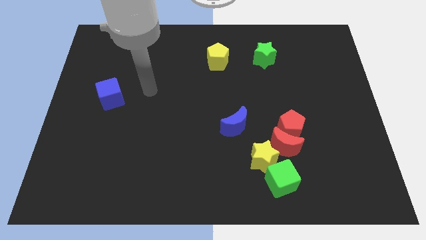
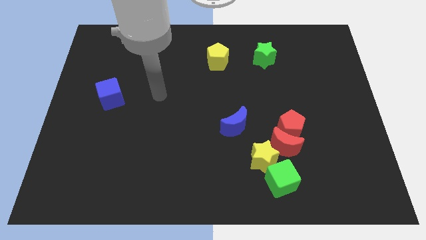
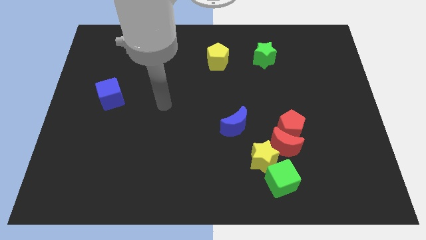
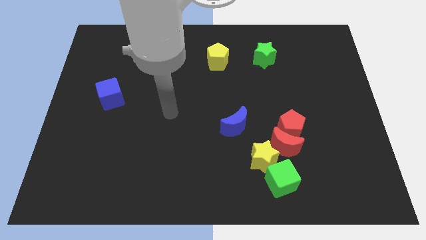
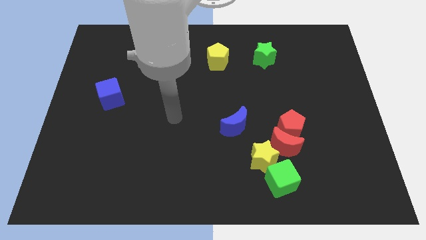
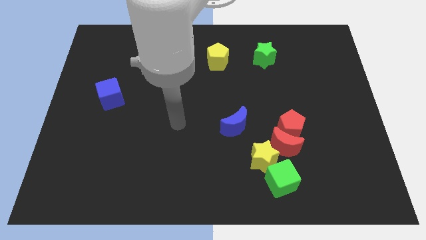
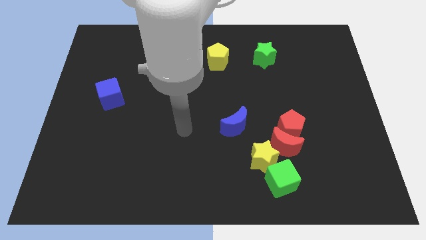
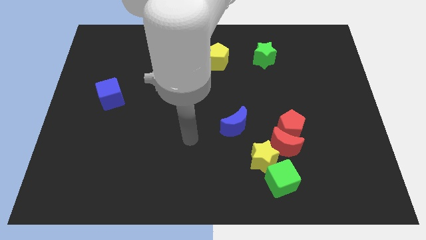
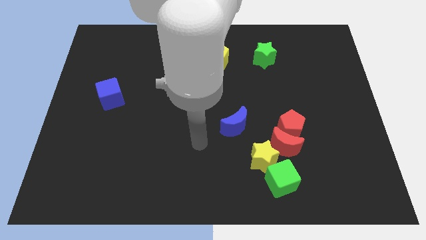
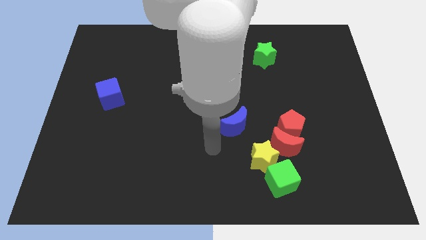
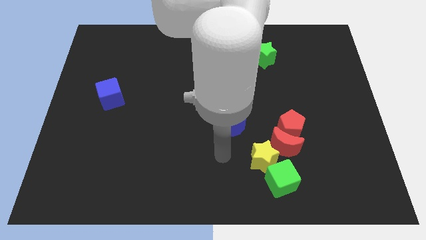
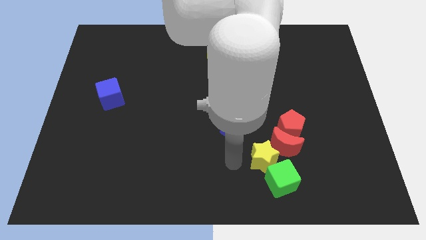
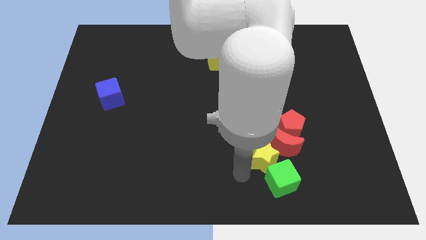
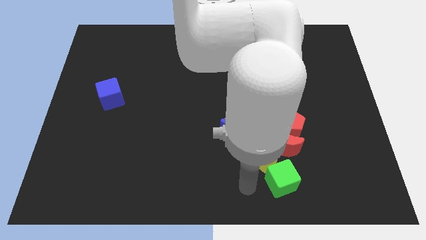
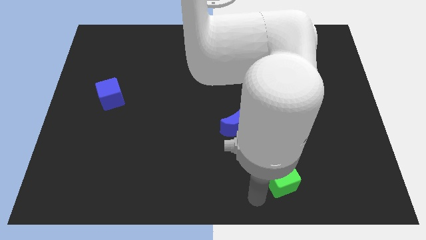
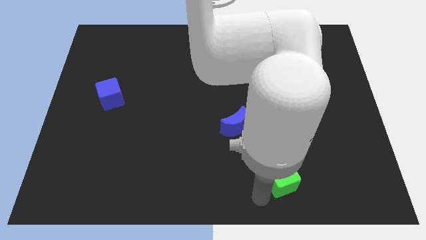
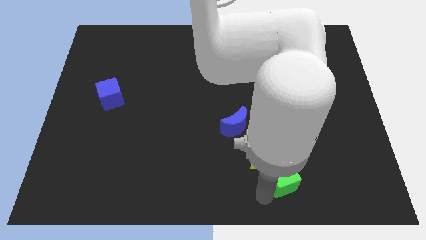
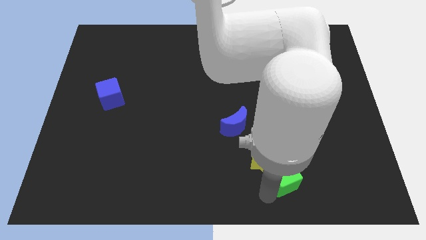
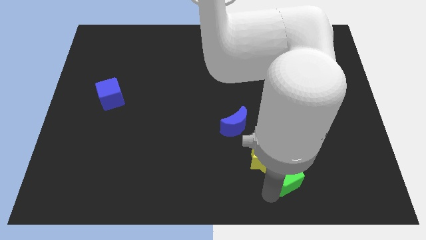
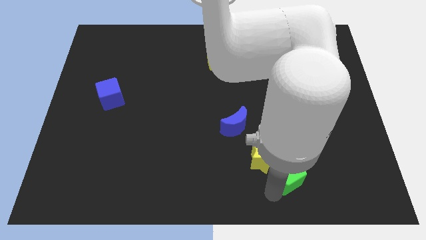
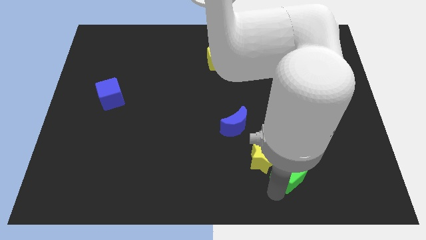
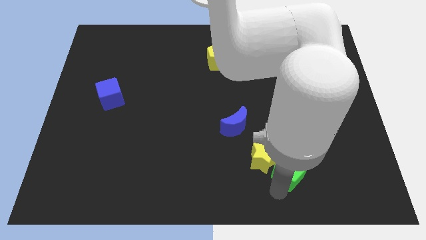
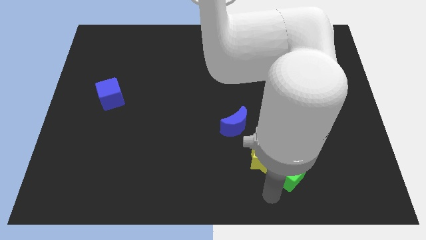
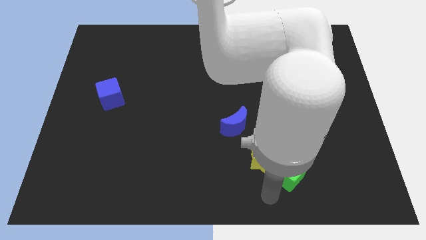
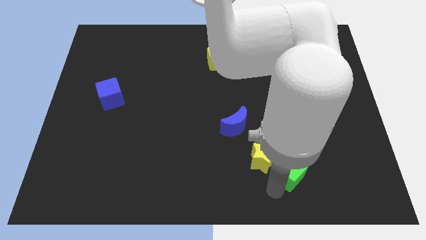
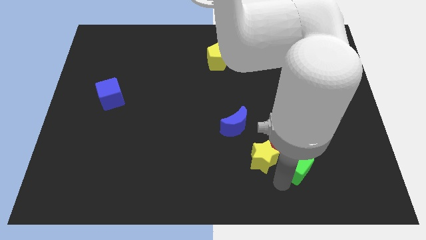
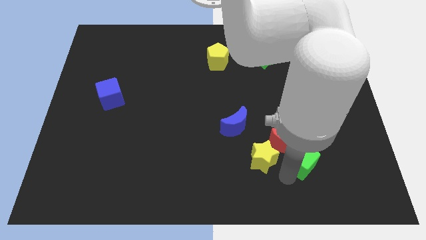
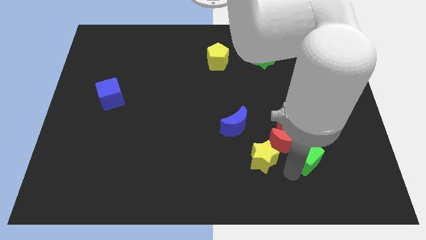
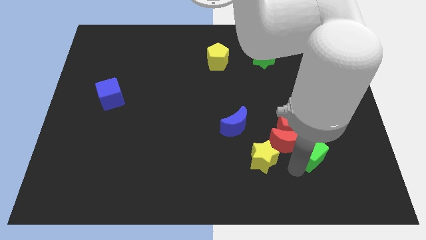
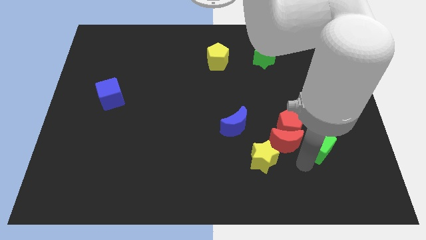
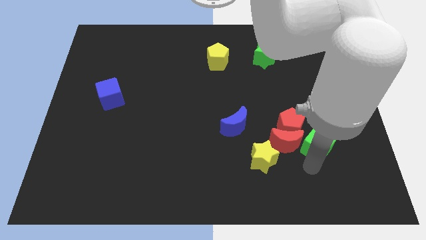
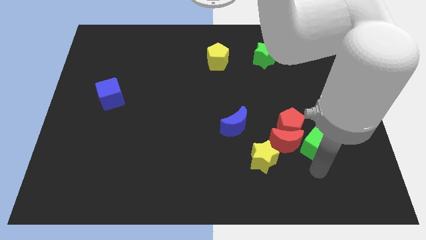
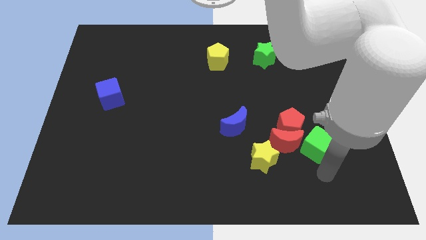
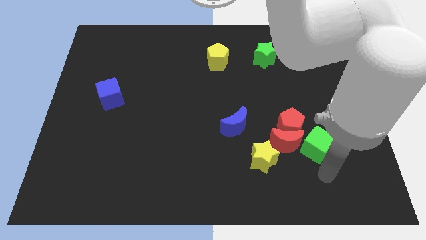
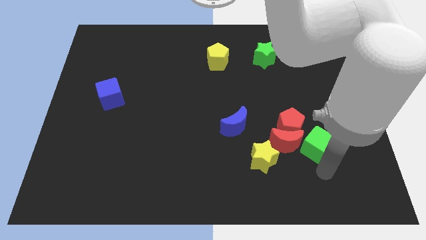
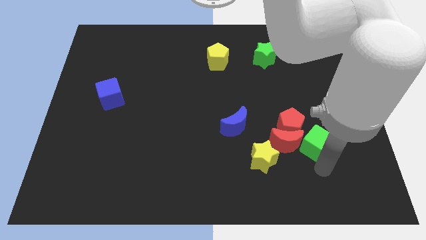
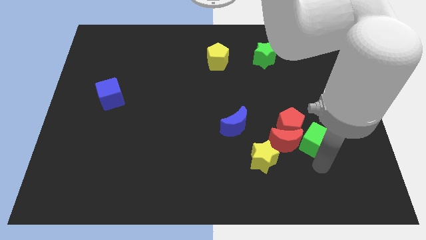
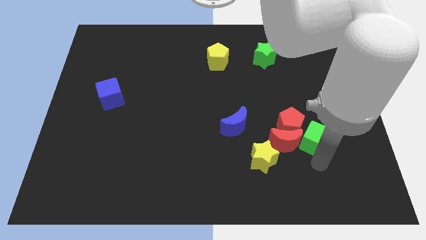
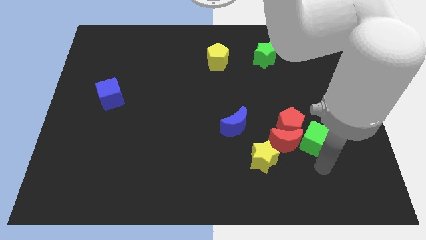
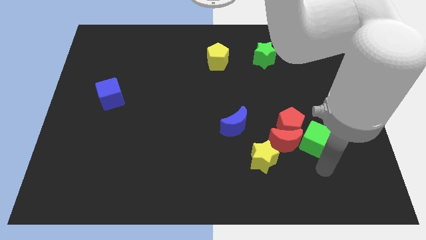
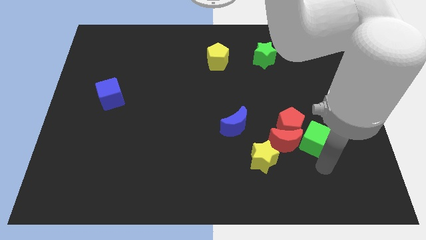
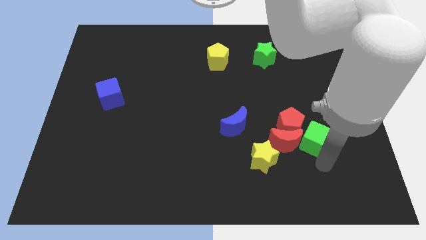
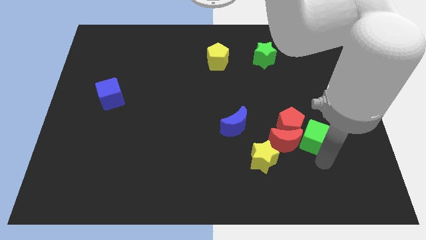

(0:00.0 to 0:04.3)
slightly push the green cube upwards

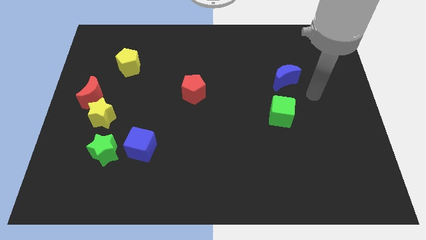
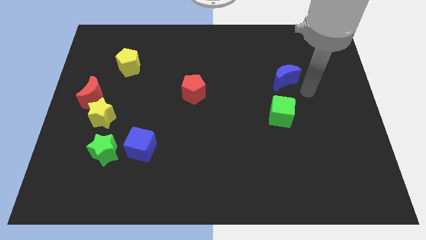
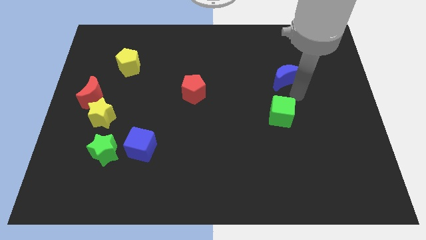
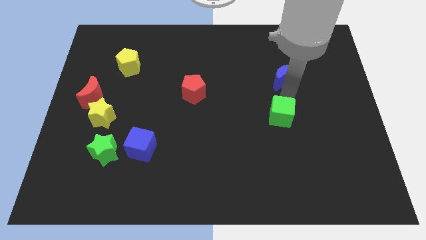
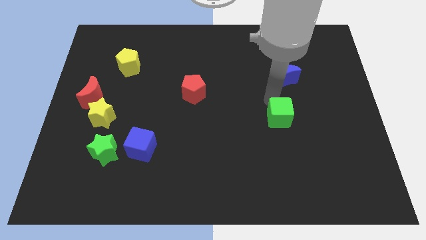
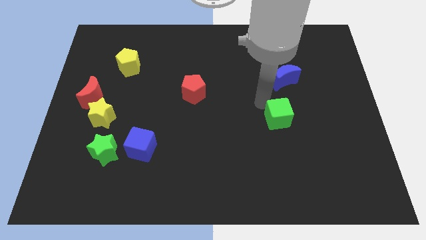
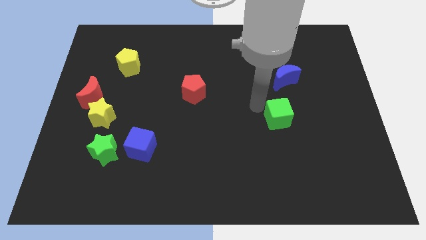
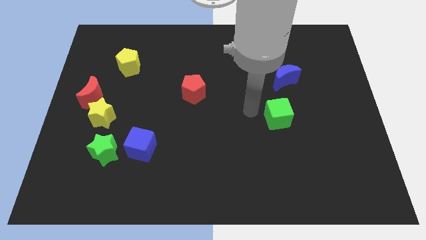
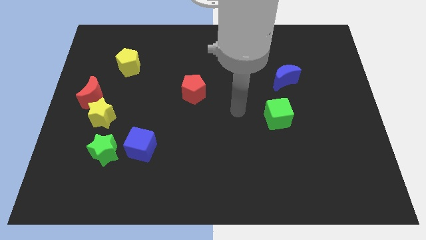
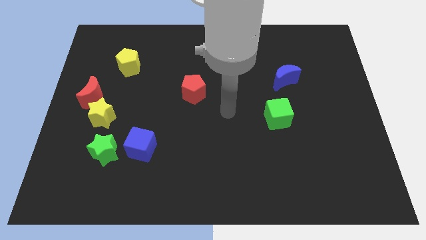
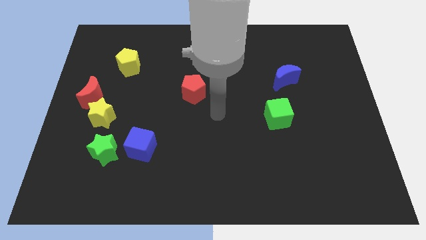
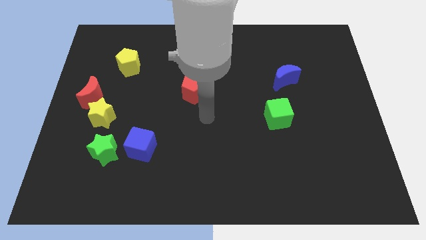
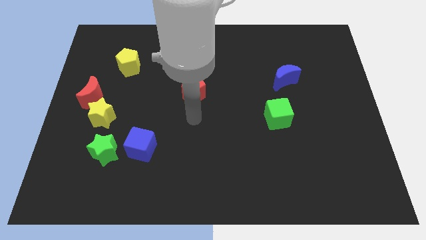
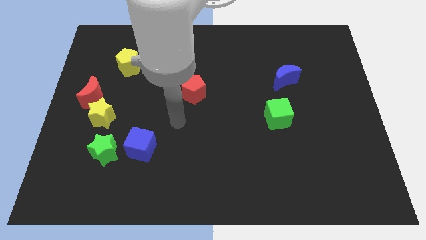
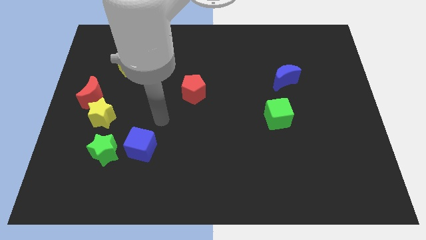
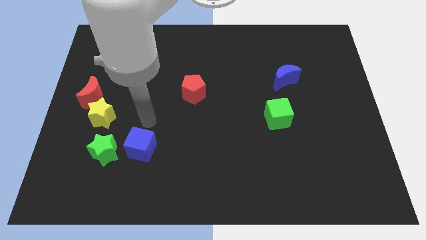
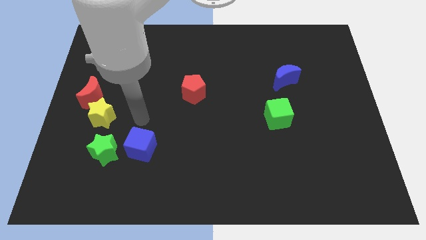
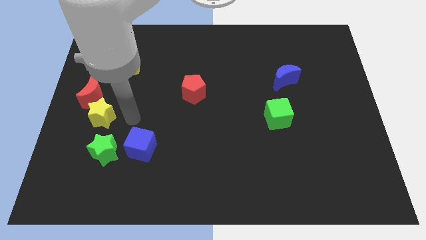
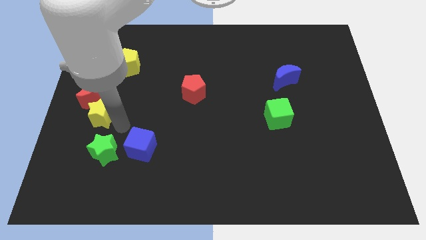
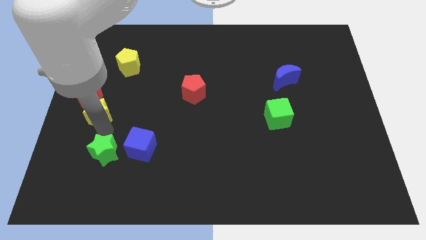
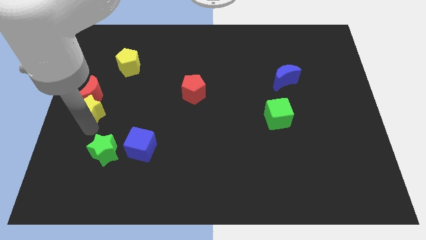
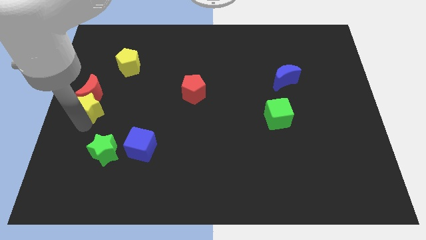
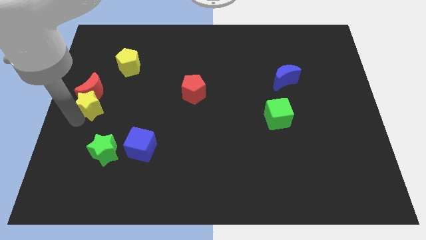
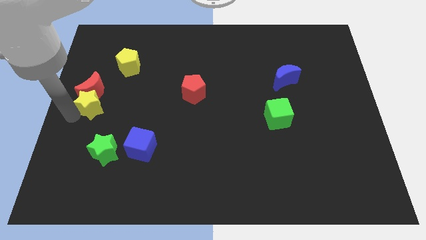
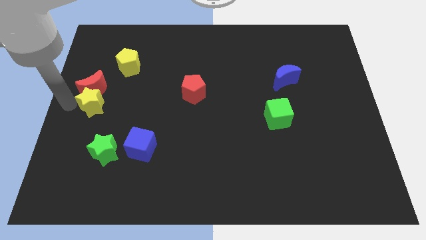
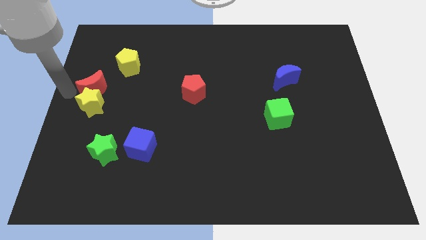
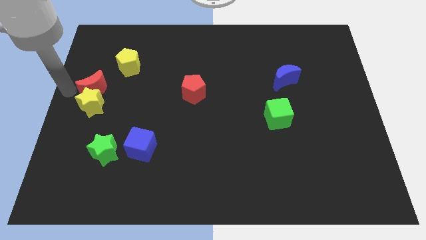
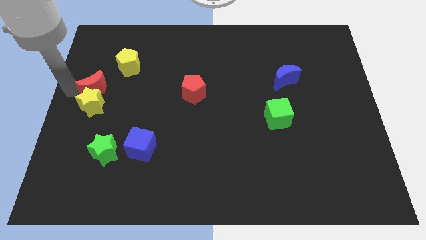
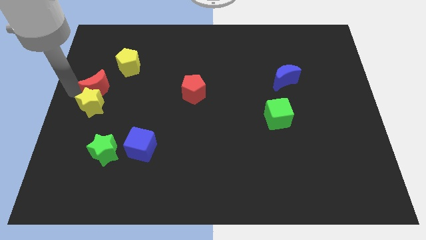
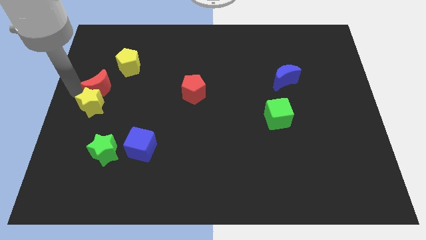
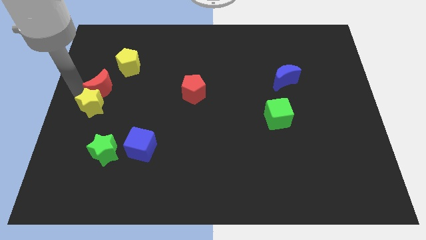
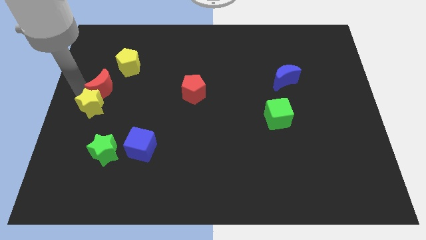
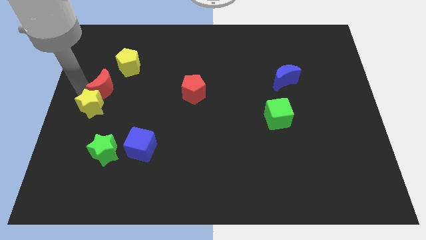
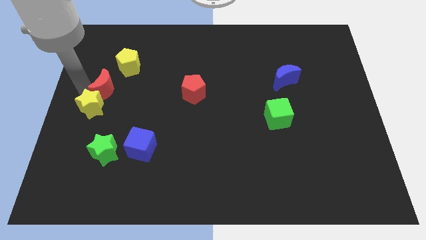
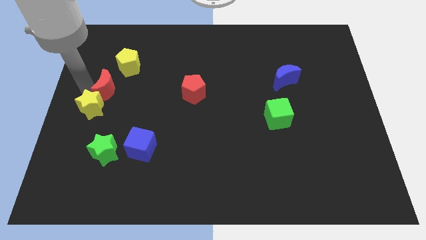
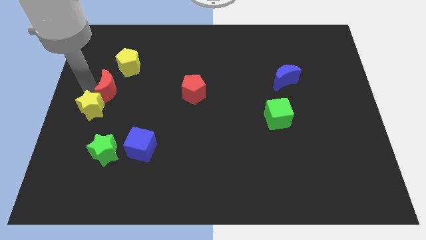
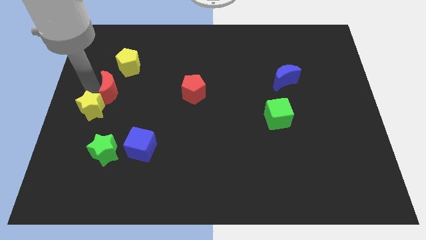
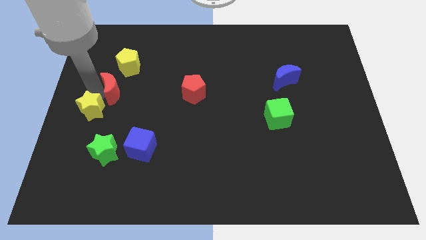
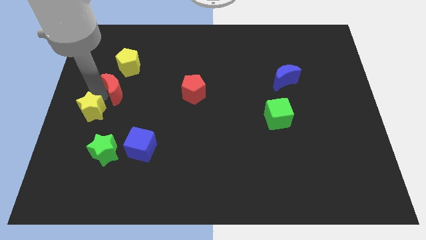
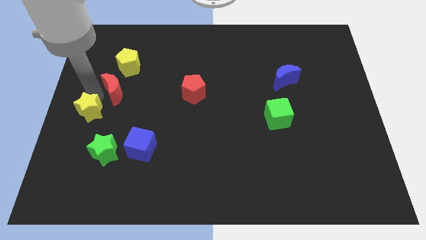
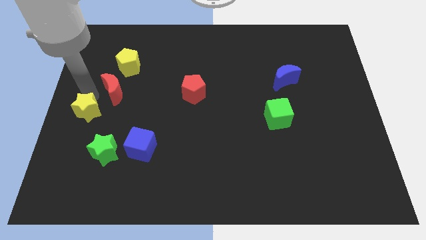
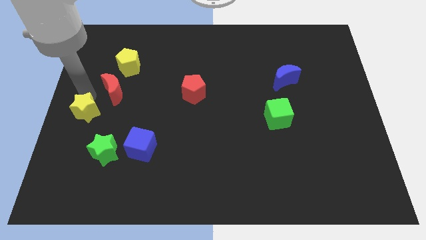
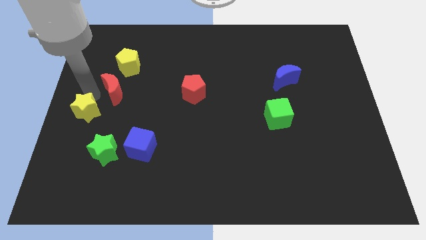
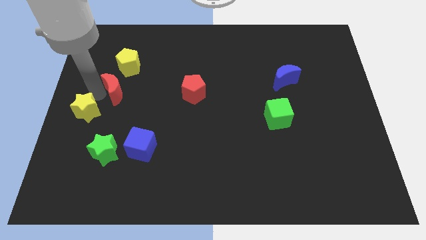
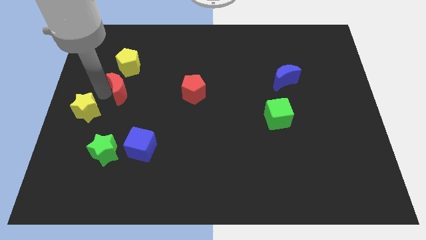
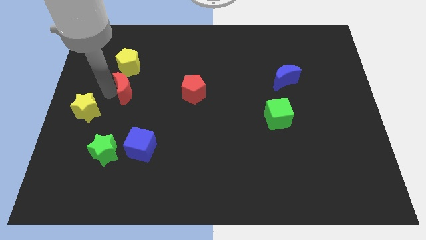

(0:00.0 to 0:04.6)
move the red moon slightly to the right
